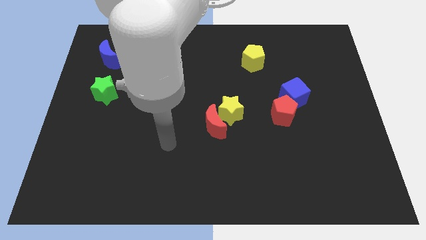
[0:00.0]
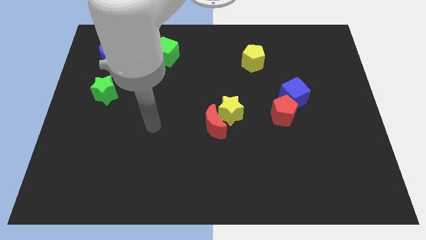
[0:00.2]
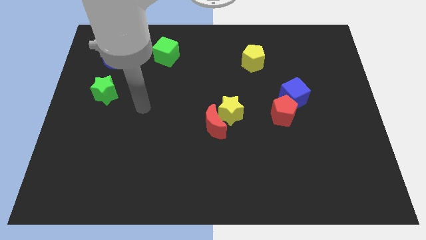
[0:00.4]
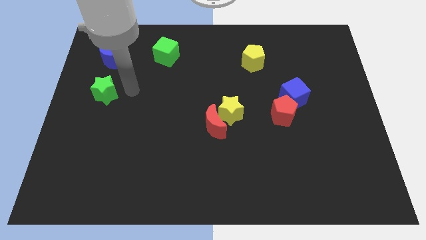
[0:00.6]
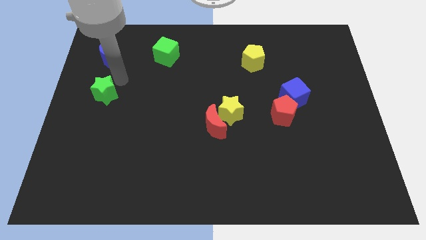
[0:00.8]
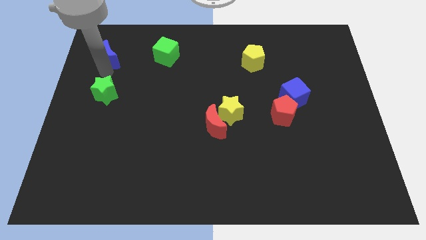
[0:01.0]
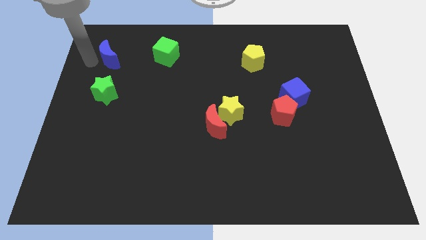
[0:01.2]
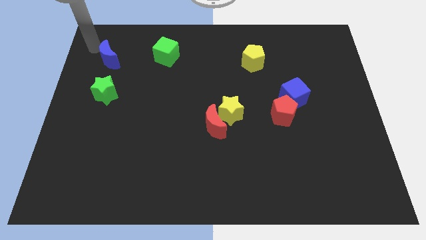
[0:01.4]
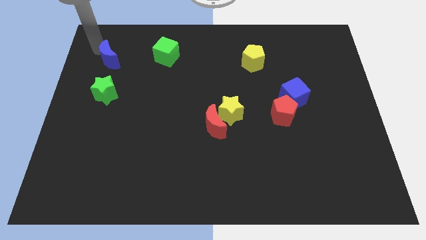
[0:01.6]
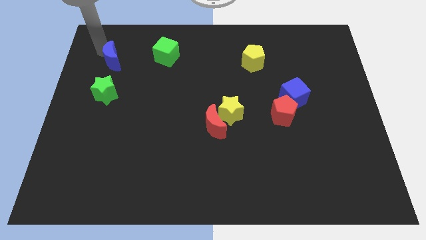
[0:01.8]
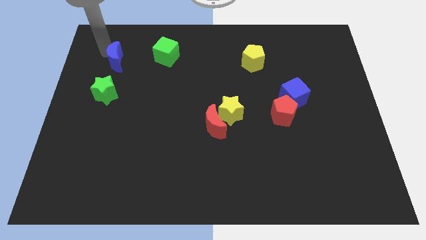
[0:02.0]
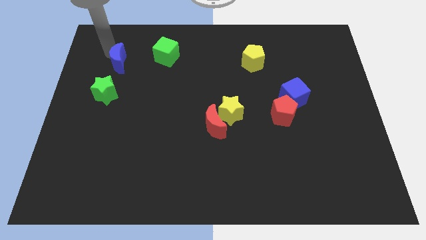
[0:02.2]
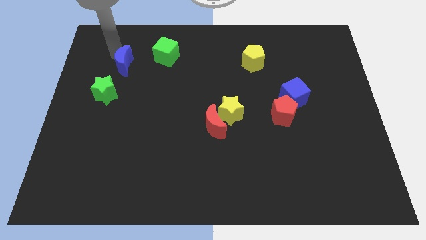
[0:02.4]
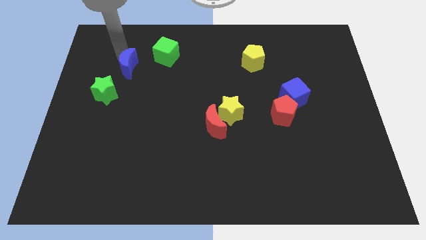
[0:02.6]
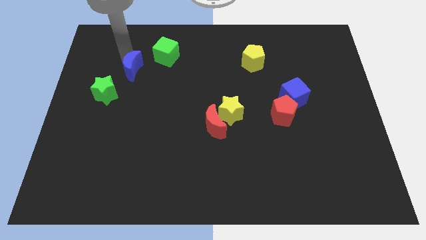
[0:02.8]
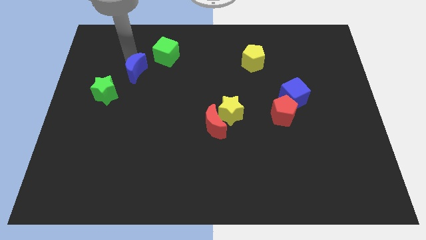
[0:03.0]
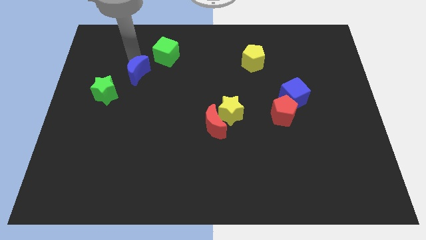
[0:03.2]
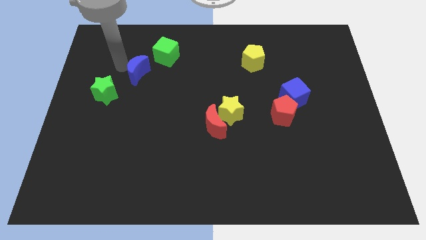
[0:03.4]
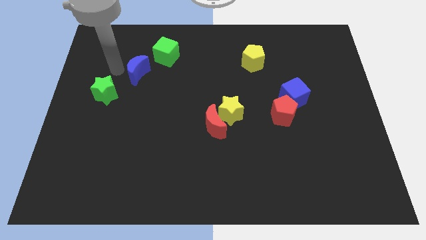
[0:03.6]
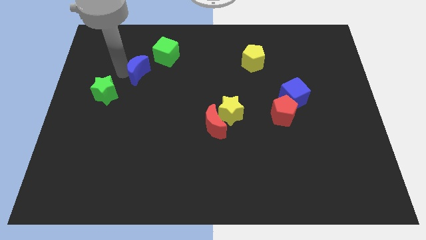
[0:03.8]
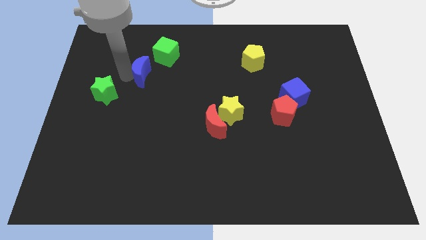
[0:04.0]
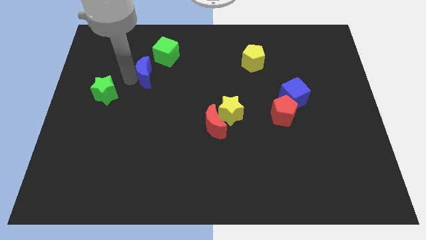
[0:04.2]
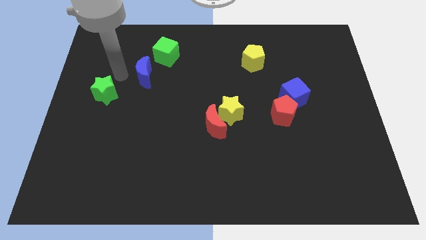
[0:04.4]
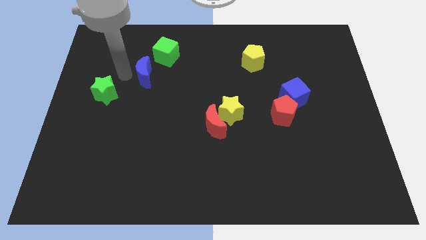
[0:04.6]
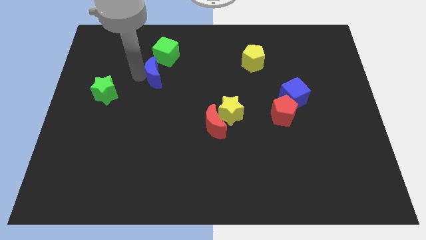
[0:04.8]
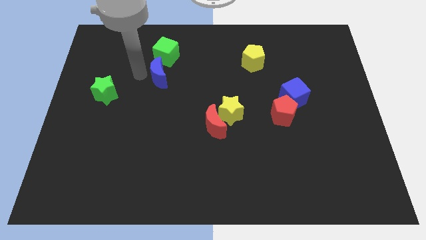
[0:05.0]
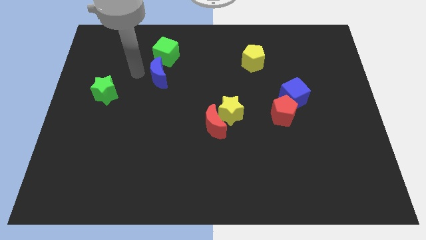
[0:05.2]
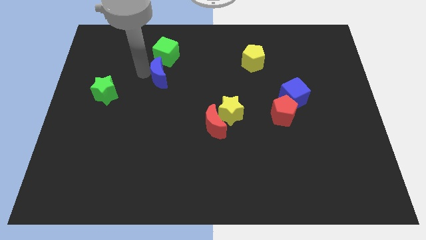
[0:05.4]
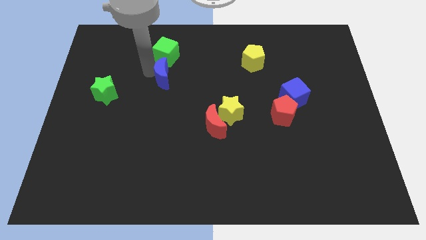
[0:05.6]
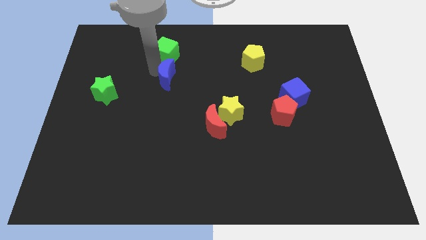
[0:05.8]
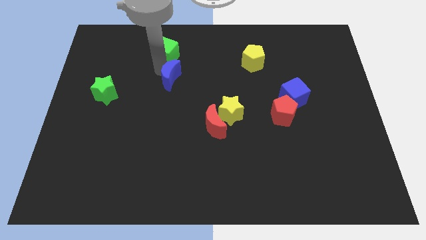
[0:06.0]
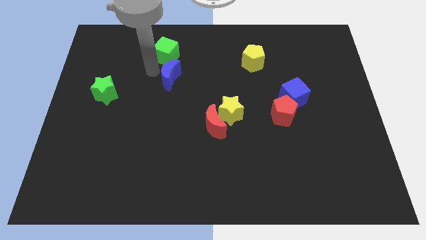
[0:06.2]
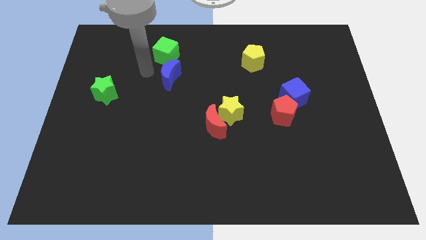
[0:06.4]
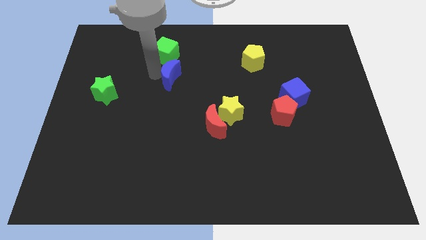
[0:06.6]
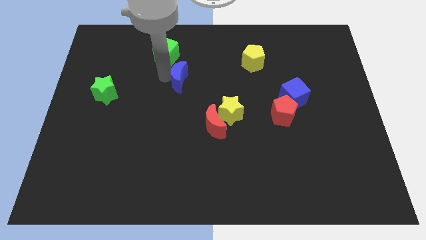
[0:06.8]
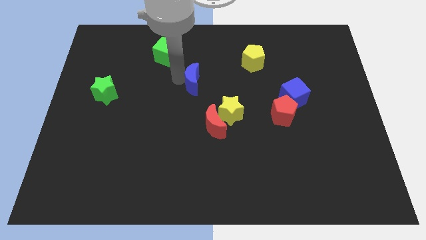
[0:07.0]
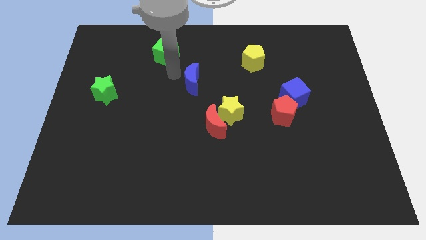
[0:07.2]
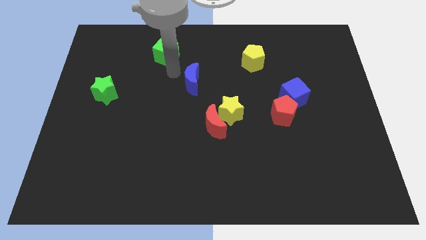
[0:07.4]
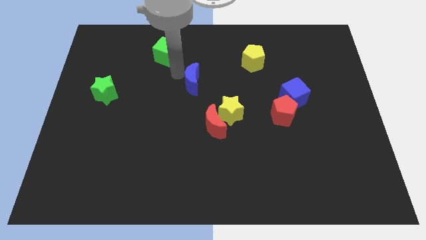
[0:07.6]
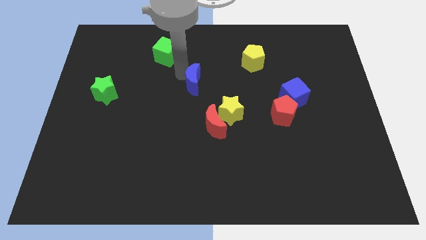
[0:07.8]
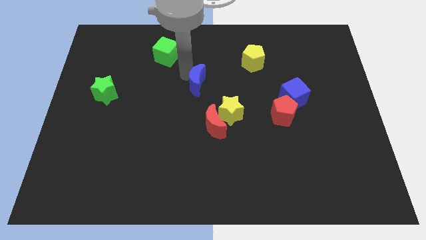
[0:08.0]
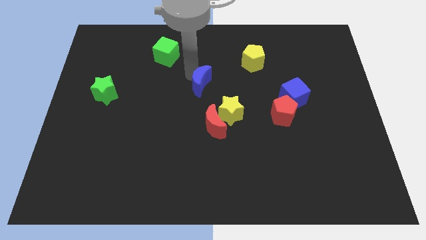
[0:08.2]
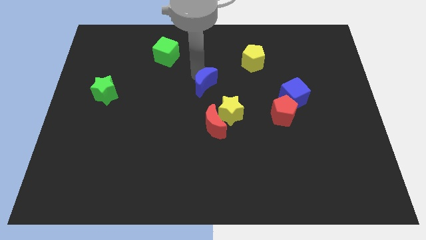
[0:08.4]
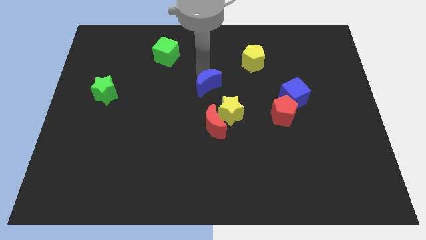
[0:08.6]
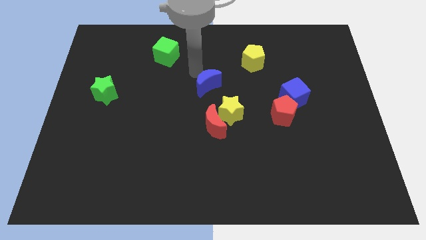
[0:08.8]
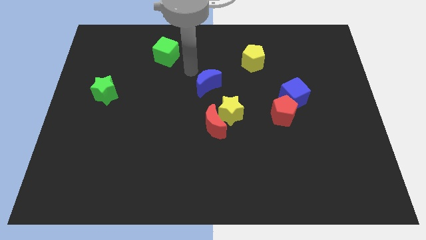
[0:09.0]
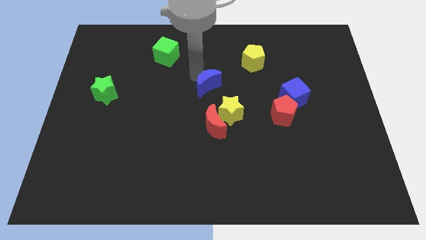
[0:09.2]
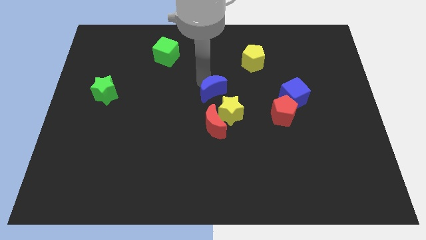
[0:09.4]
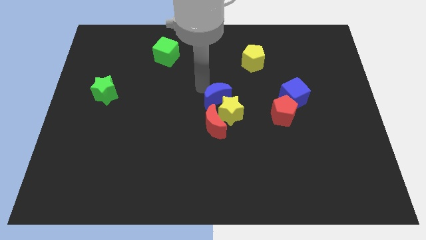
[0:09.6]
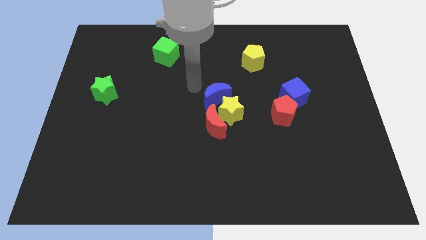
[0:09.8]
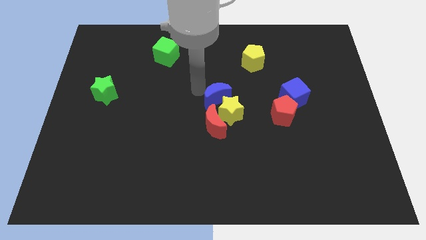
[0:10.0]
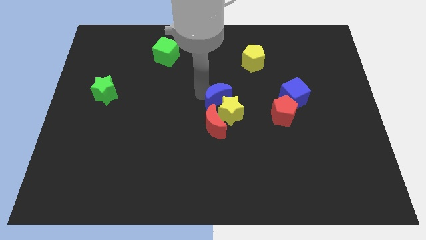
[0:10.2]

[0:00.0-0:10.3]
push the blue moon to the top right side of the red moon

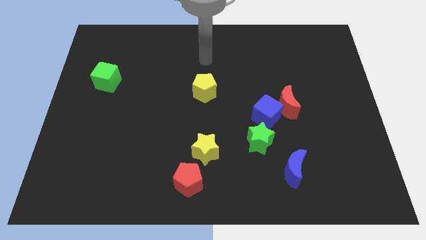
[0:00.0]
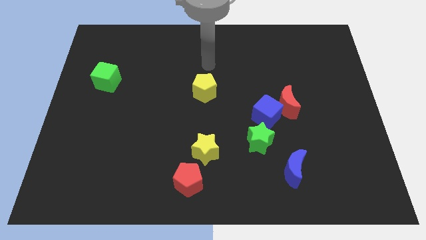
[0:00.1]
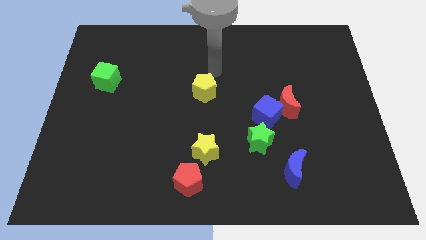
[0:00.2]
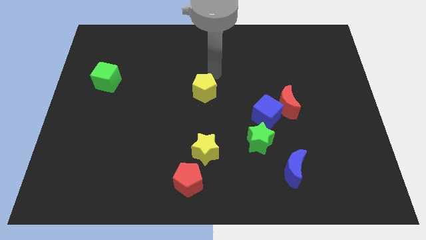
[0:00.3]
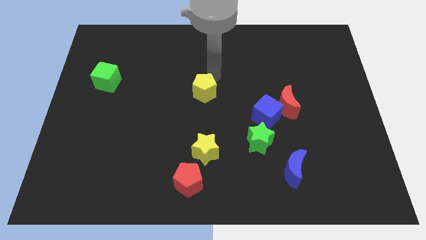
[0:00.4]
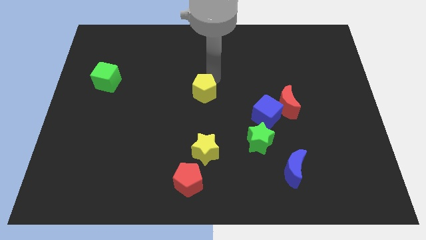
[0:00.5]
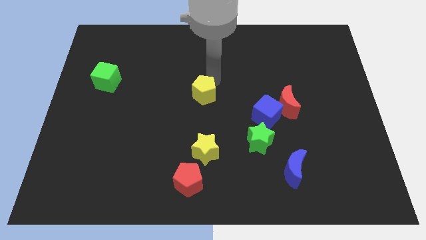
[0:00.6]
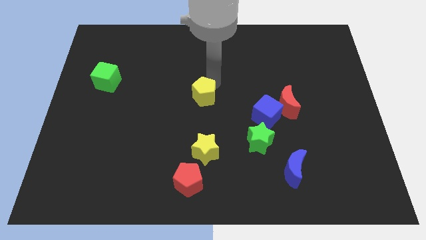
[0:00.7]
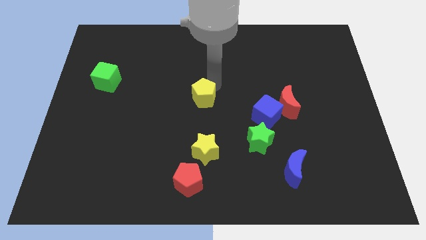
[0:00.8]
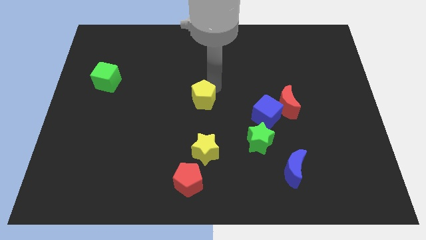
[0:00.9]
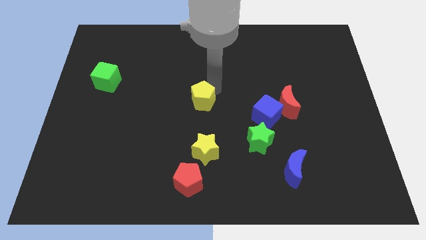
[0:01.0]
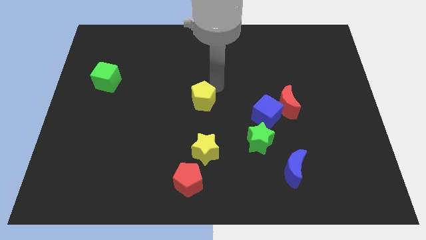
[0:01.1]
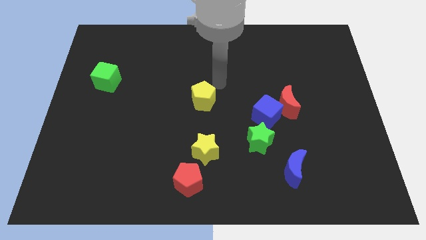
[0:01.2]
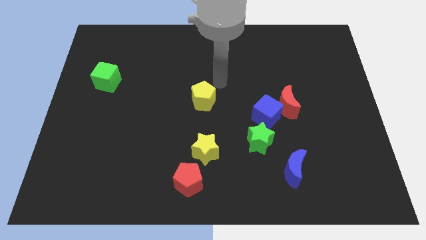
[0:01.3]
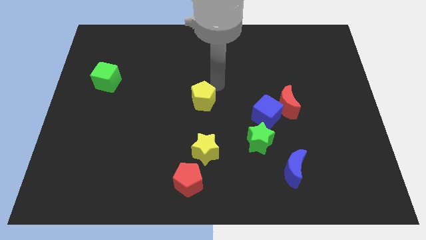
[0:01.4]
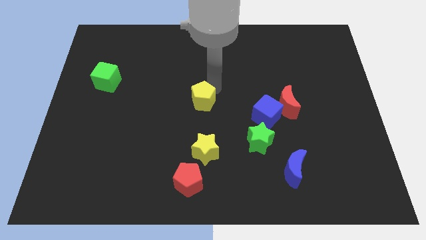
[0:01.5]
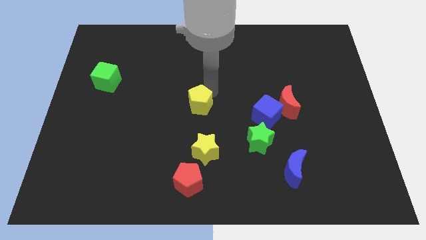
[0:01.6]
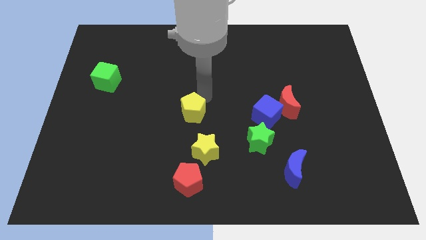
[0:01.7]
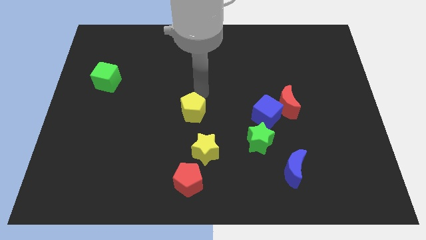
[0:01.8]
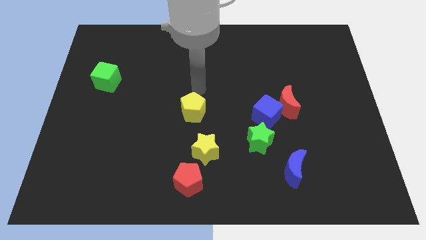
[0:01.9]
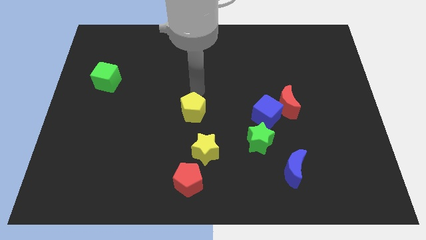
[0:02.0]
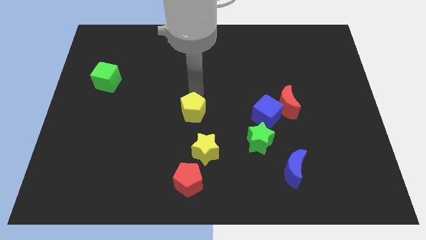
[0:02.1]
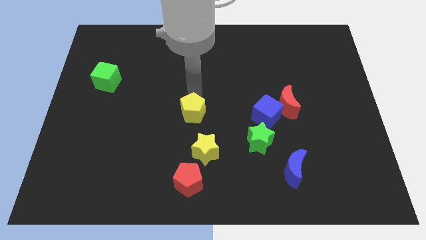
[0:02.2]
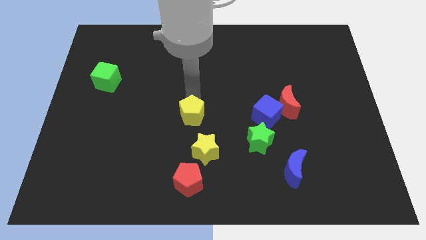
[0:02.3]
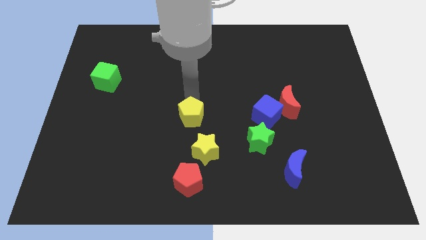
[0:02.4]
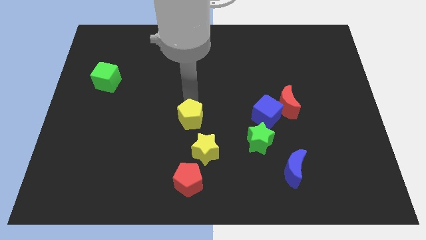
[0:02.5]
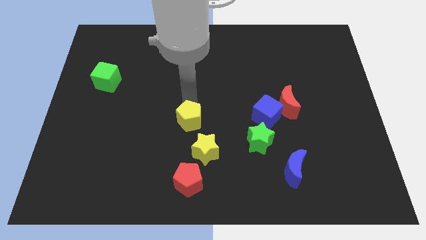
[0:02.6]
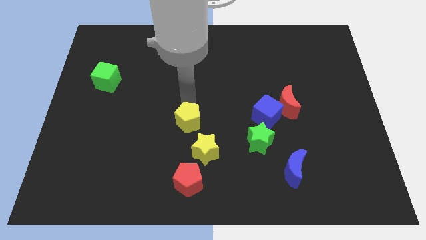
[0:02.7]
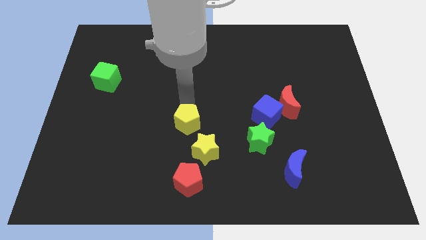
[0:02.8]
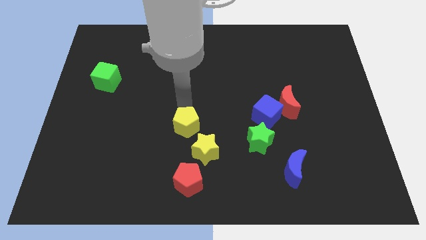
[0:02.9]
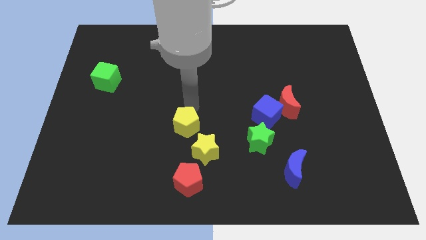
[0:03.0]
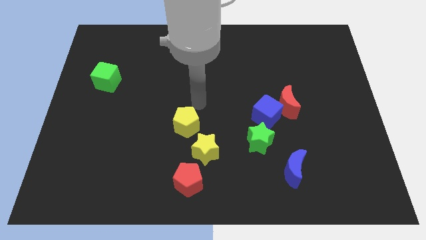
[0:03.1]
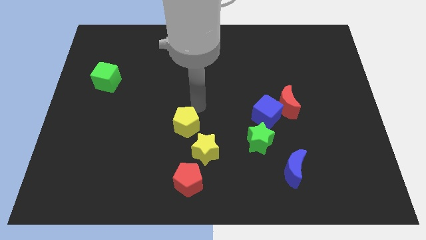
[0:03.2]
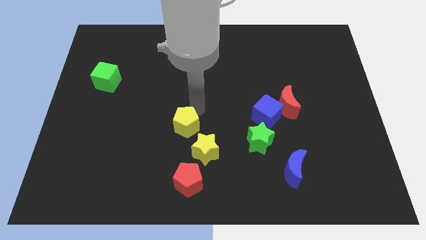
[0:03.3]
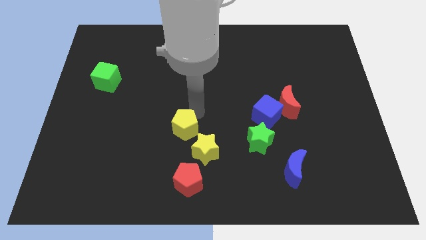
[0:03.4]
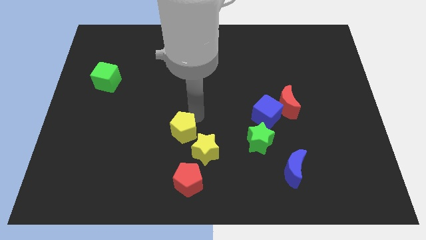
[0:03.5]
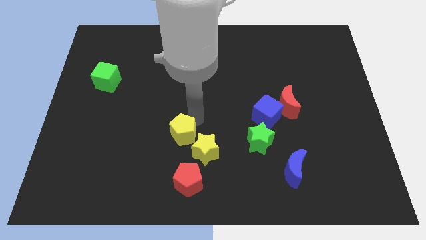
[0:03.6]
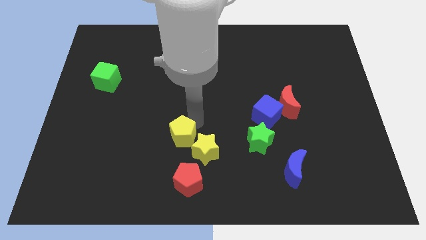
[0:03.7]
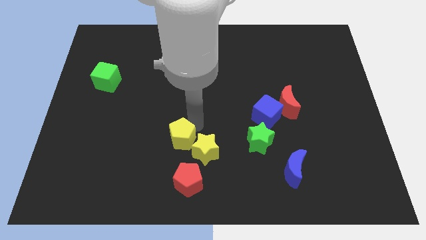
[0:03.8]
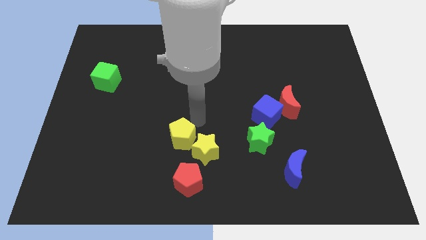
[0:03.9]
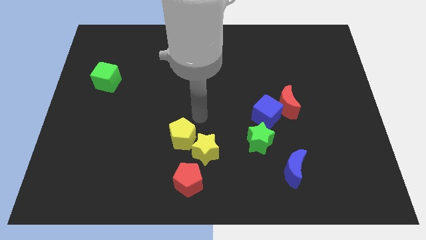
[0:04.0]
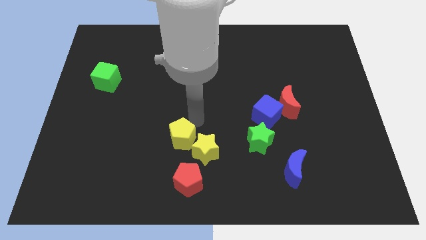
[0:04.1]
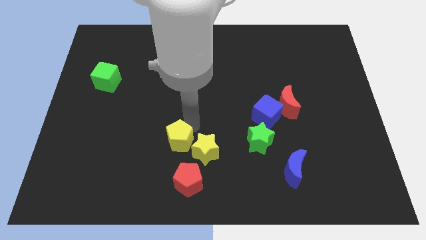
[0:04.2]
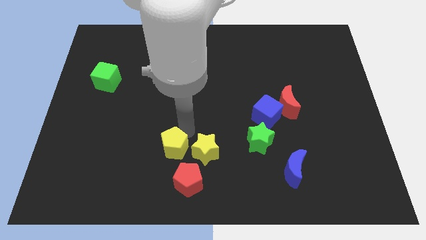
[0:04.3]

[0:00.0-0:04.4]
slide the yellow pentagon to the top left of the red pentagon
